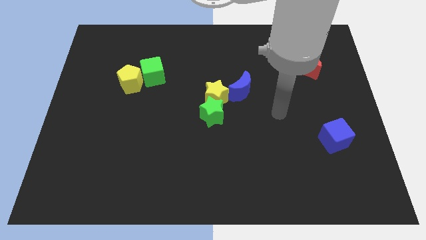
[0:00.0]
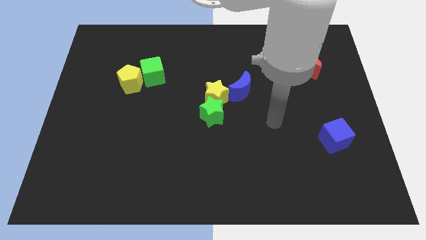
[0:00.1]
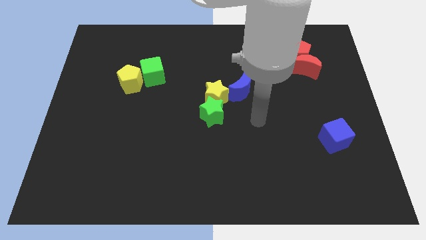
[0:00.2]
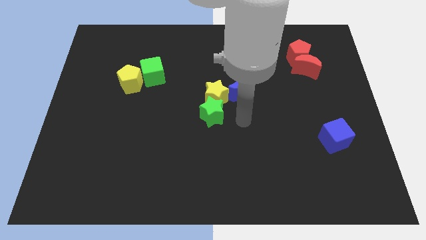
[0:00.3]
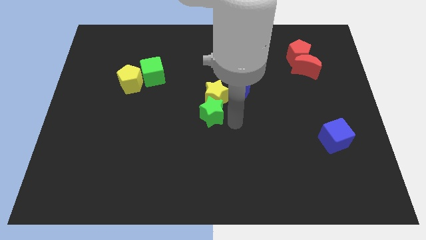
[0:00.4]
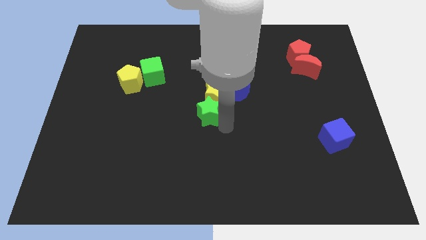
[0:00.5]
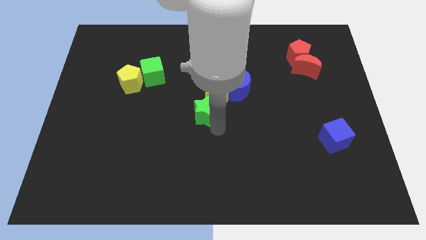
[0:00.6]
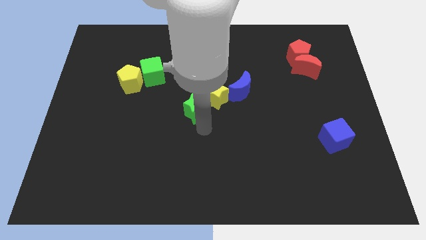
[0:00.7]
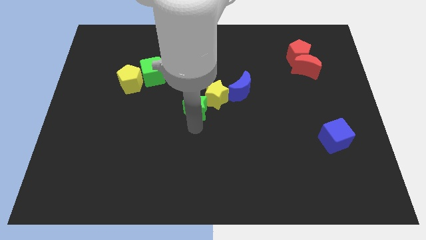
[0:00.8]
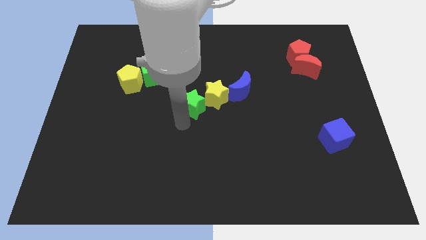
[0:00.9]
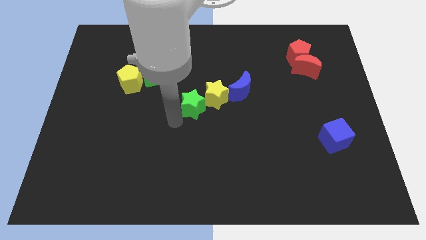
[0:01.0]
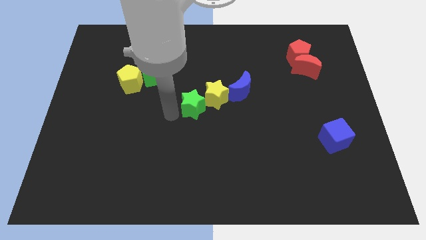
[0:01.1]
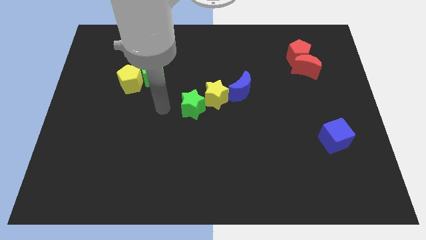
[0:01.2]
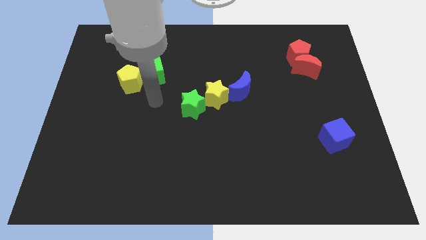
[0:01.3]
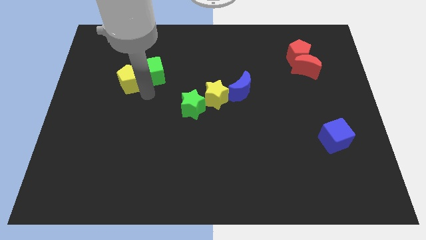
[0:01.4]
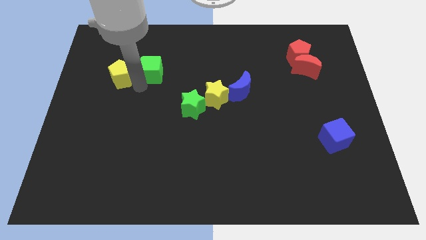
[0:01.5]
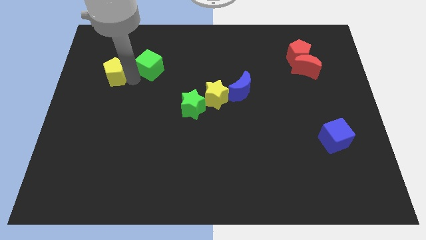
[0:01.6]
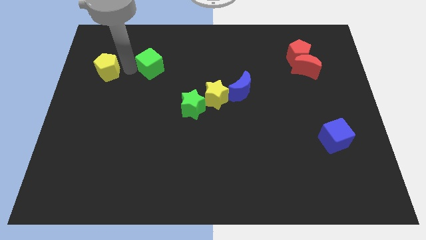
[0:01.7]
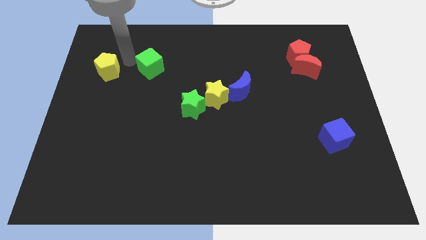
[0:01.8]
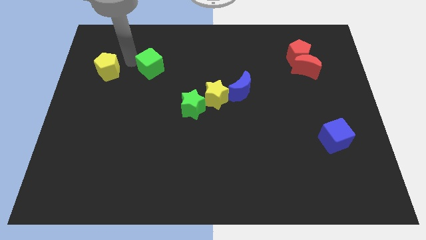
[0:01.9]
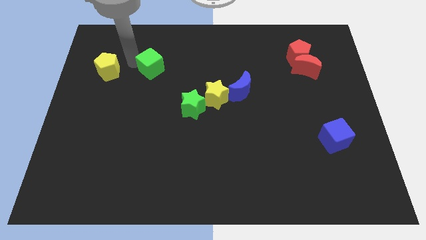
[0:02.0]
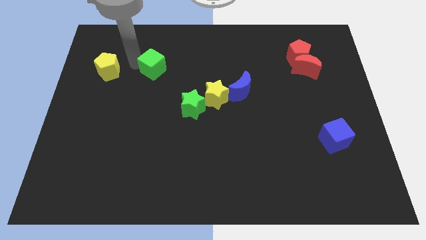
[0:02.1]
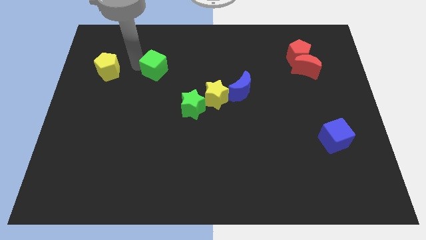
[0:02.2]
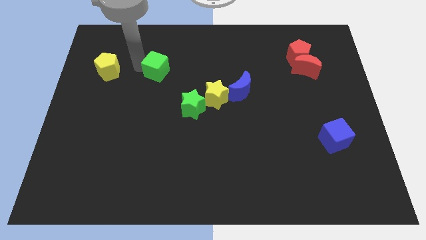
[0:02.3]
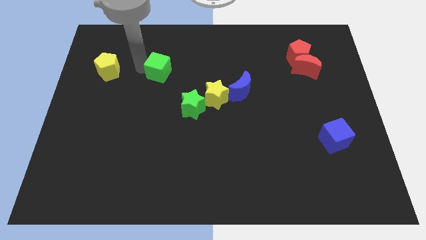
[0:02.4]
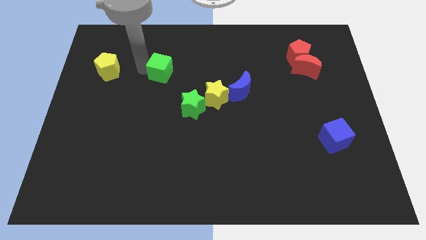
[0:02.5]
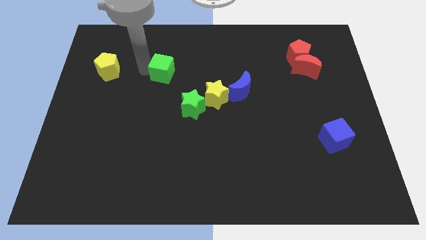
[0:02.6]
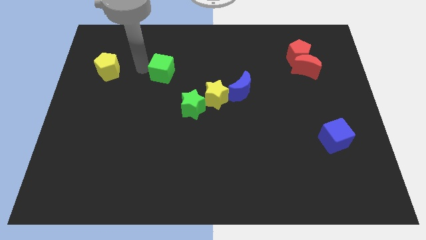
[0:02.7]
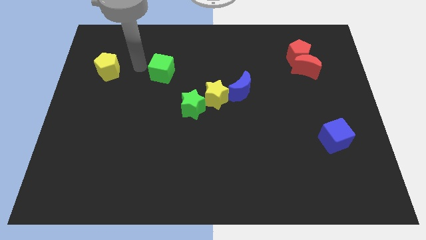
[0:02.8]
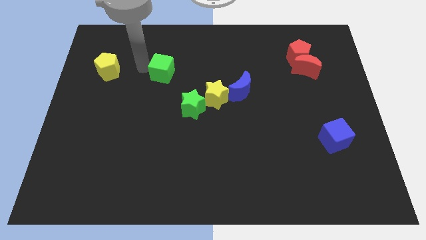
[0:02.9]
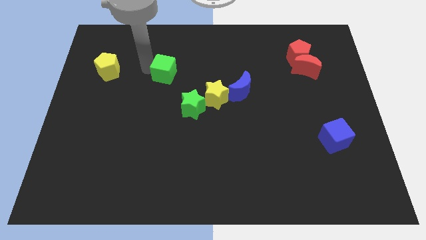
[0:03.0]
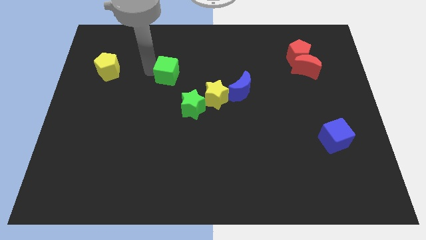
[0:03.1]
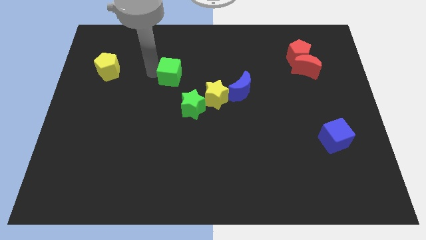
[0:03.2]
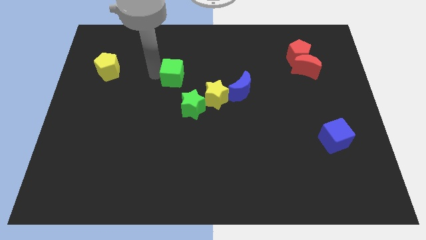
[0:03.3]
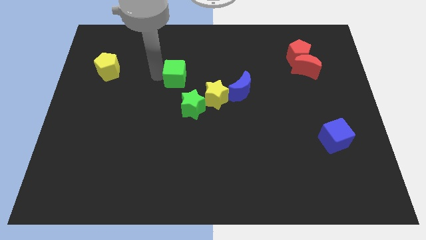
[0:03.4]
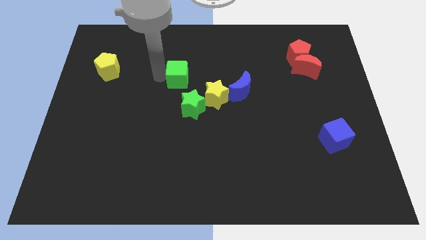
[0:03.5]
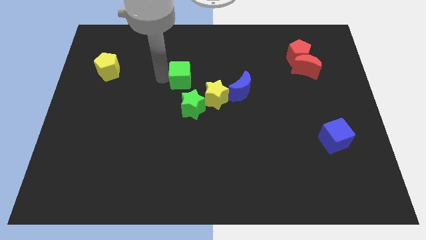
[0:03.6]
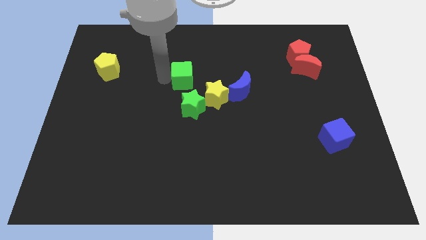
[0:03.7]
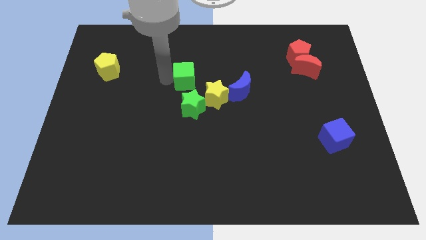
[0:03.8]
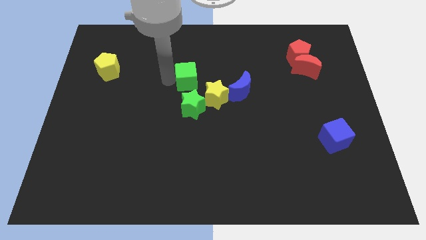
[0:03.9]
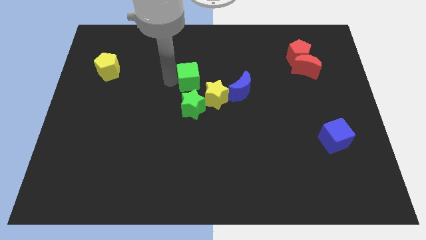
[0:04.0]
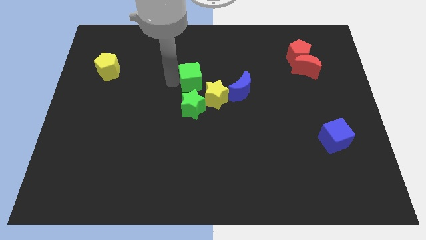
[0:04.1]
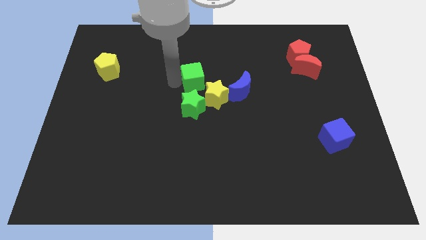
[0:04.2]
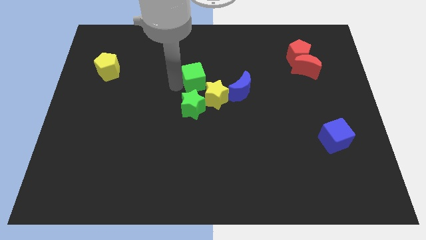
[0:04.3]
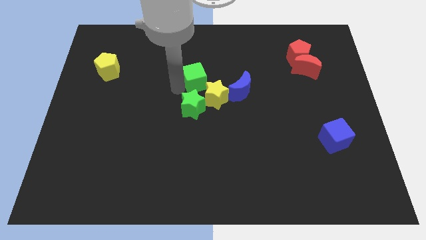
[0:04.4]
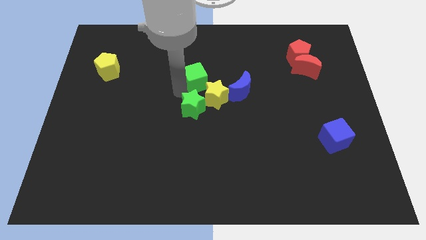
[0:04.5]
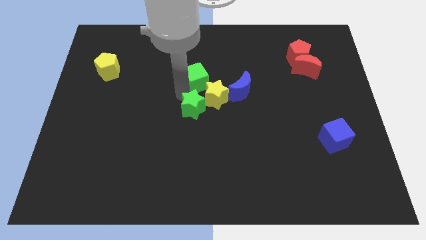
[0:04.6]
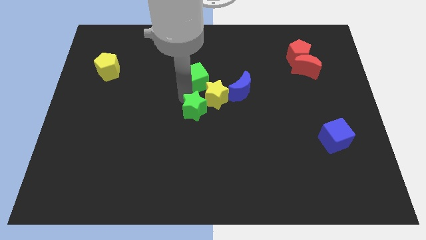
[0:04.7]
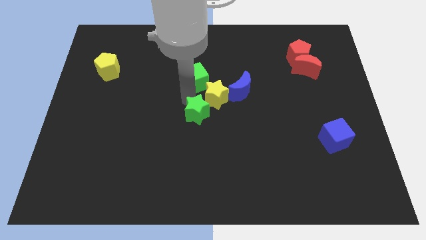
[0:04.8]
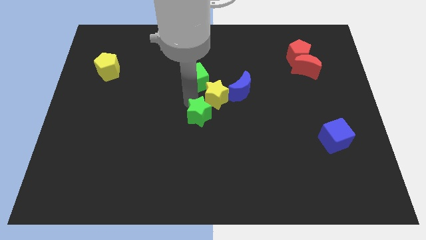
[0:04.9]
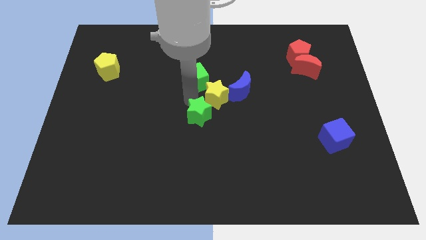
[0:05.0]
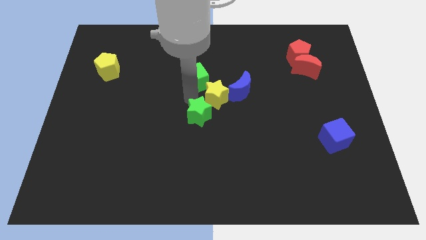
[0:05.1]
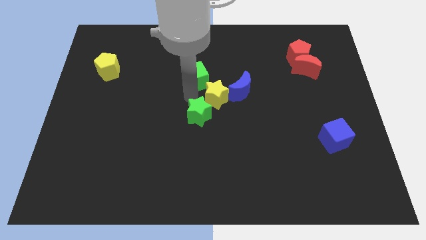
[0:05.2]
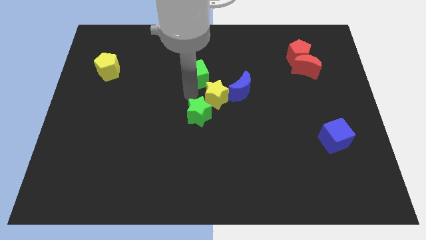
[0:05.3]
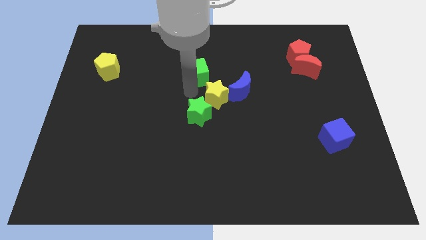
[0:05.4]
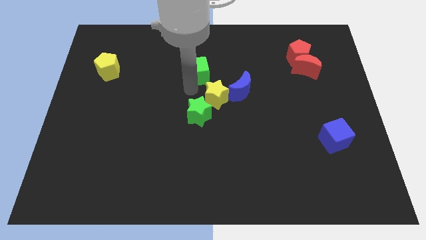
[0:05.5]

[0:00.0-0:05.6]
slide the green cube diagonally up and to the left of the blue moon

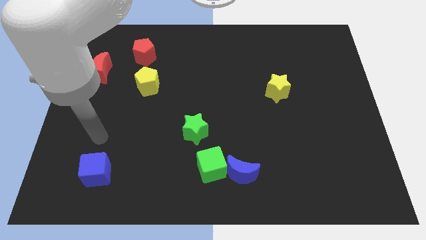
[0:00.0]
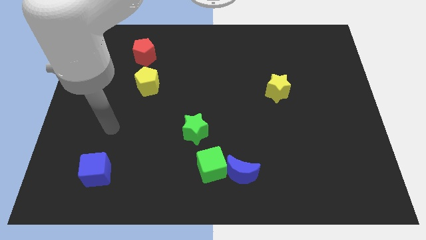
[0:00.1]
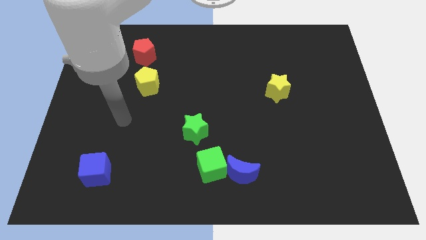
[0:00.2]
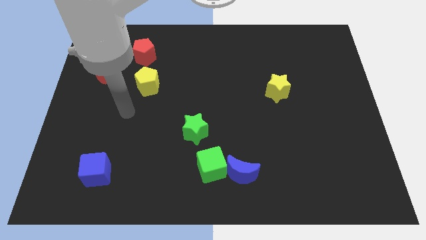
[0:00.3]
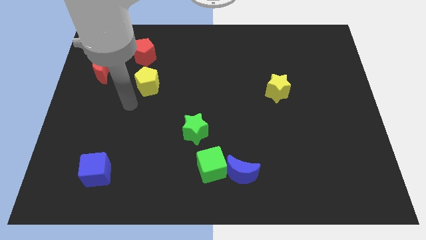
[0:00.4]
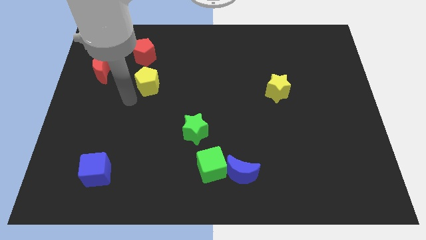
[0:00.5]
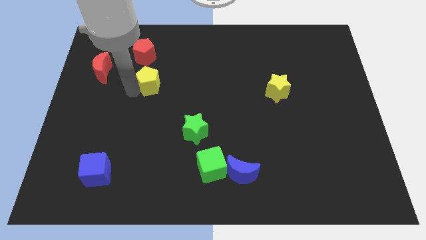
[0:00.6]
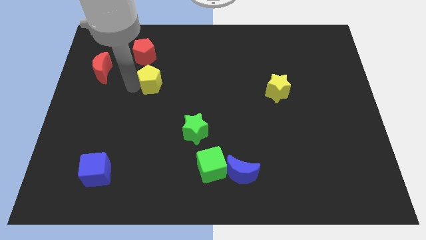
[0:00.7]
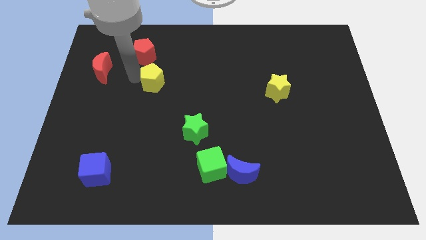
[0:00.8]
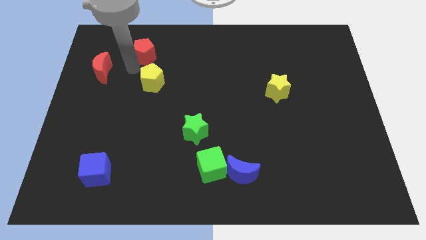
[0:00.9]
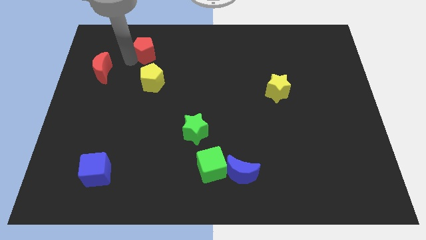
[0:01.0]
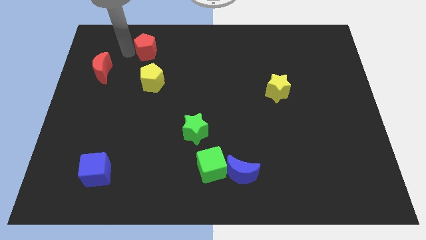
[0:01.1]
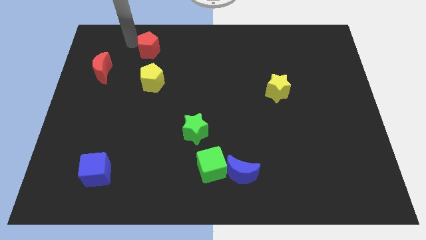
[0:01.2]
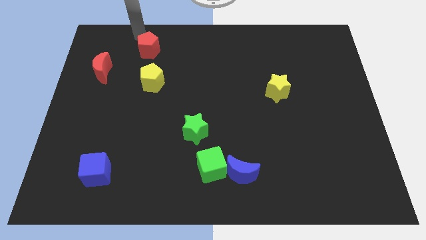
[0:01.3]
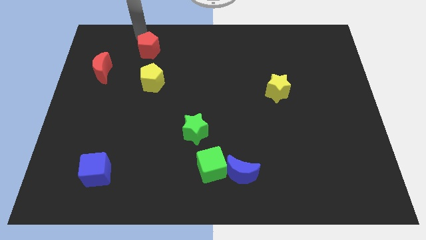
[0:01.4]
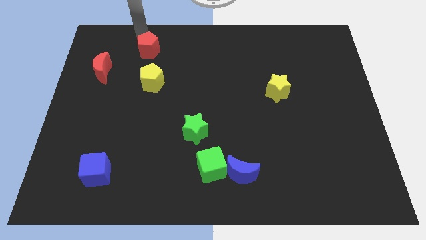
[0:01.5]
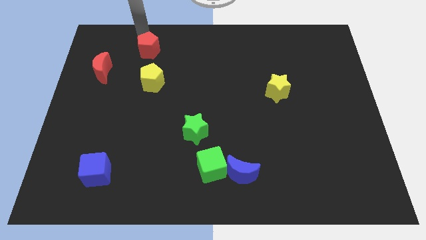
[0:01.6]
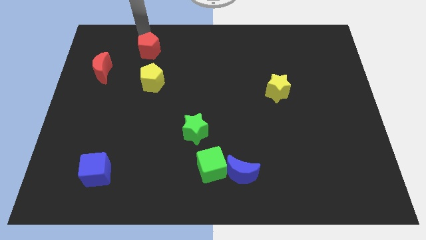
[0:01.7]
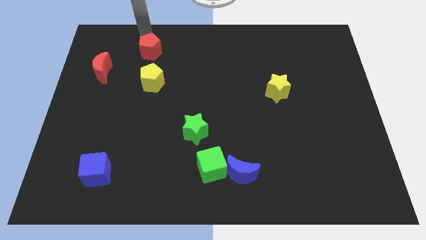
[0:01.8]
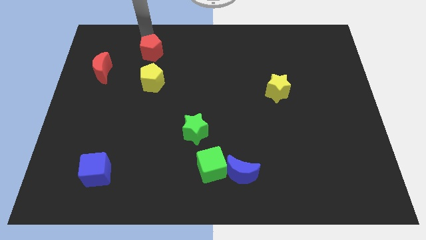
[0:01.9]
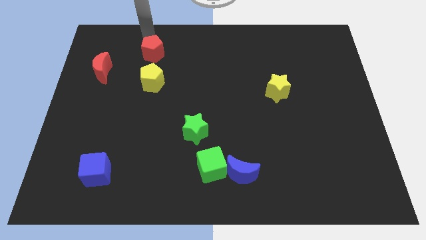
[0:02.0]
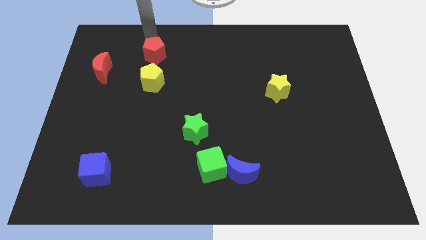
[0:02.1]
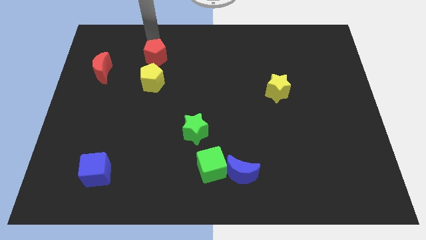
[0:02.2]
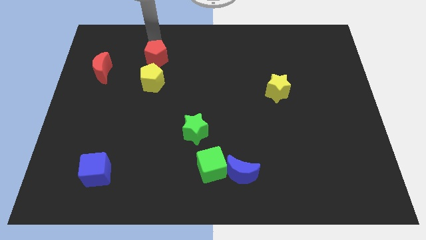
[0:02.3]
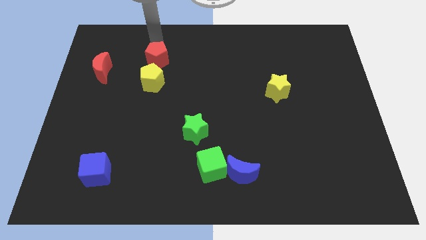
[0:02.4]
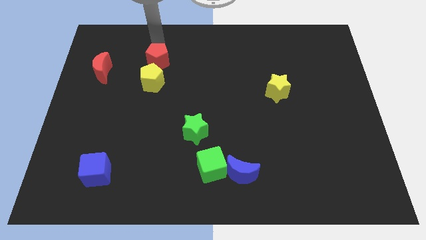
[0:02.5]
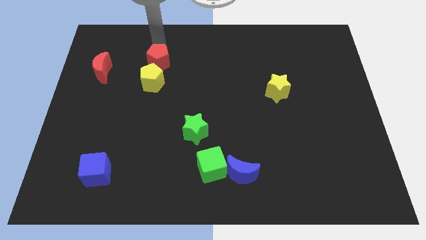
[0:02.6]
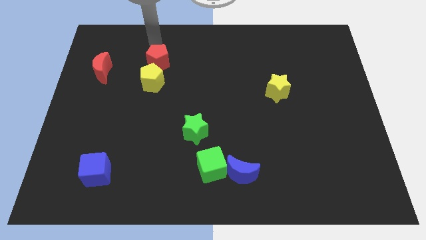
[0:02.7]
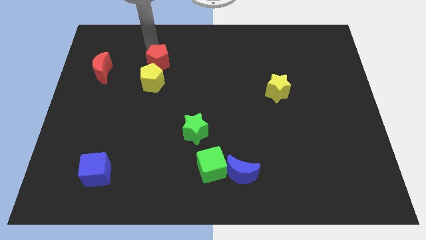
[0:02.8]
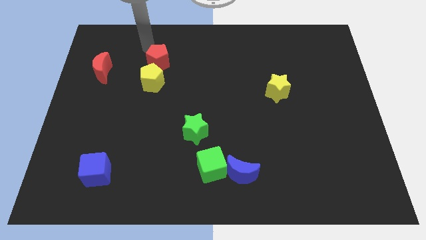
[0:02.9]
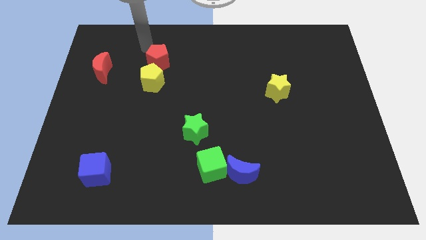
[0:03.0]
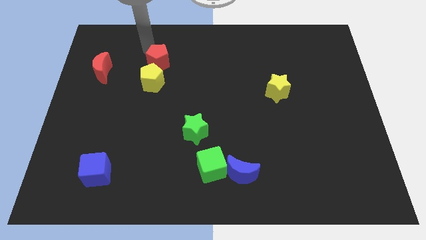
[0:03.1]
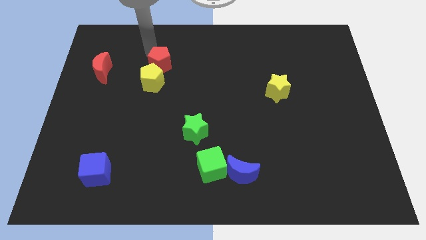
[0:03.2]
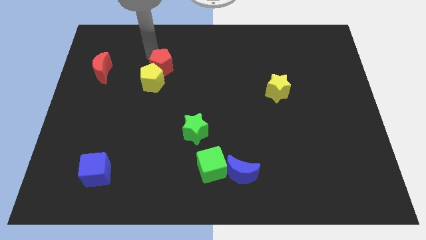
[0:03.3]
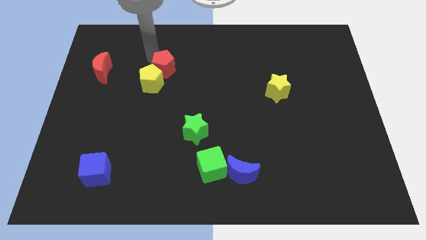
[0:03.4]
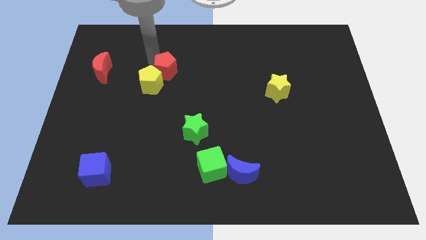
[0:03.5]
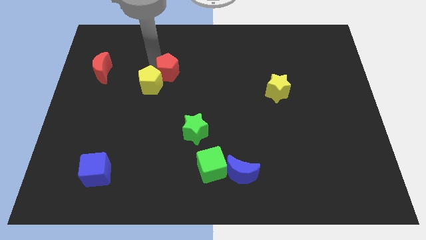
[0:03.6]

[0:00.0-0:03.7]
put the red pentagon right of the yellow pentagon
